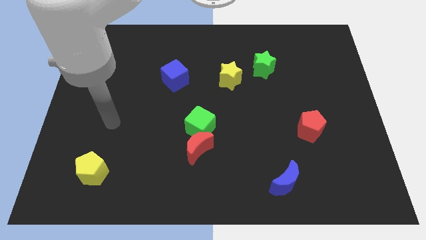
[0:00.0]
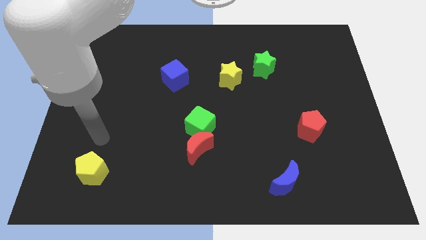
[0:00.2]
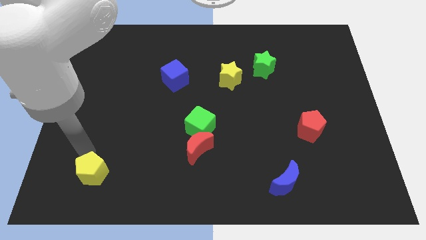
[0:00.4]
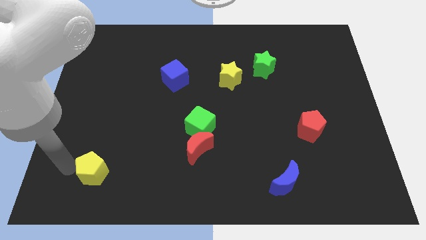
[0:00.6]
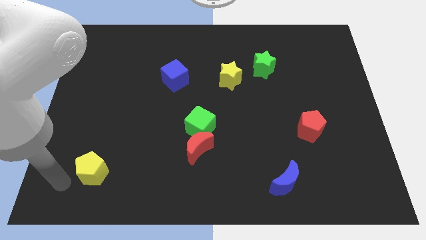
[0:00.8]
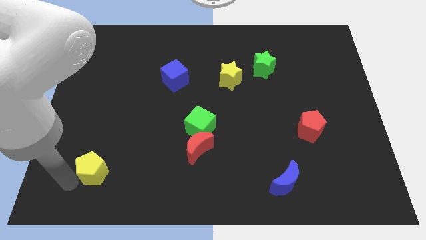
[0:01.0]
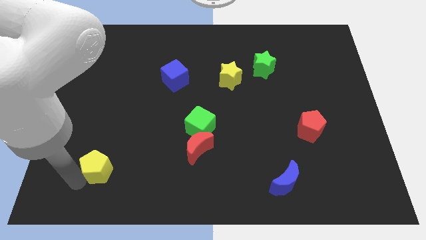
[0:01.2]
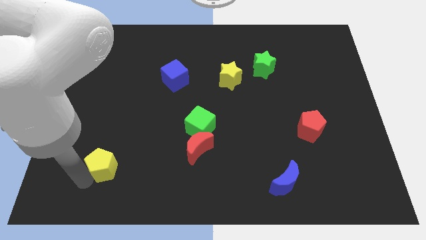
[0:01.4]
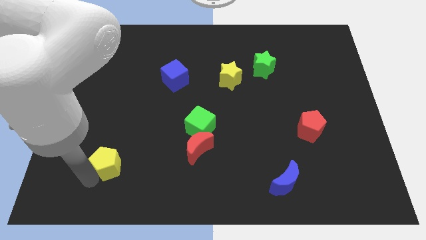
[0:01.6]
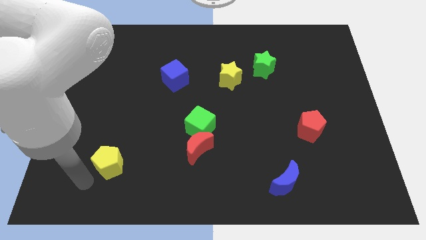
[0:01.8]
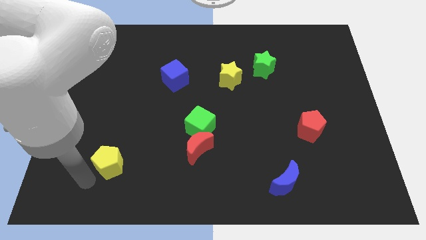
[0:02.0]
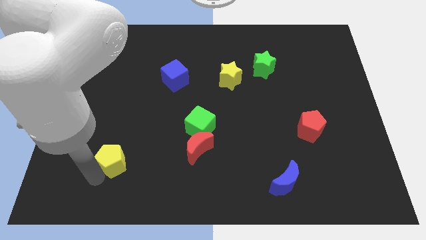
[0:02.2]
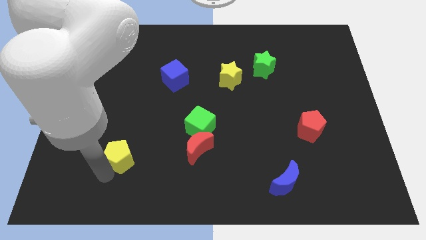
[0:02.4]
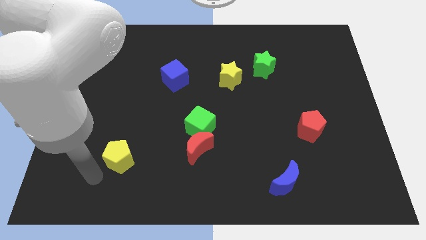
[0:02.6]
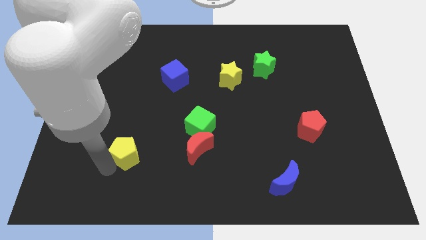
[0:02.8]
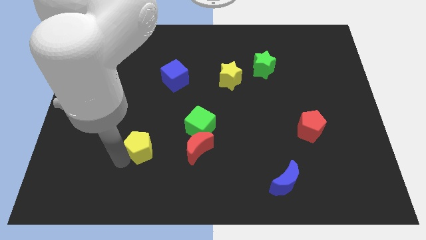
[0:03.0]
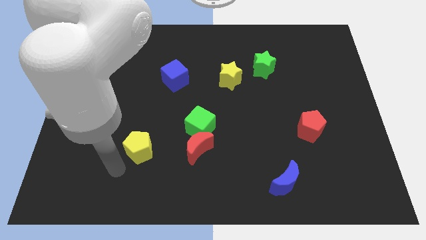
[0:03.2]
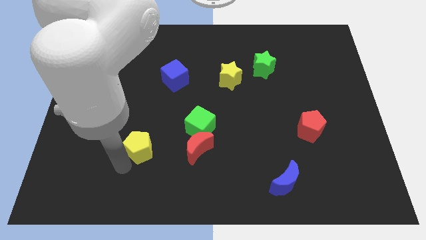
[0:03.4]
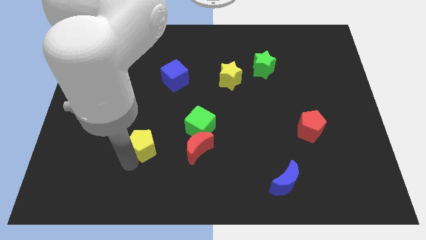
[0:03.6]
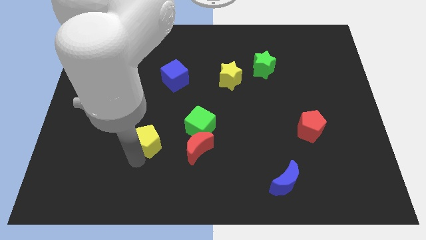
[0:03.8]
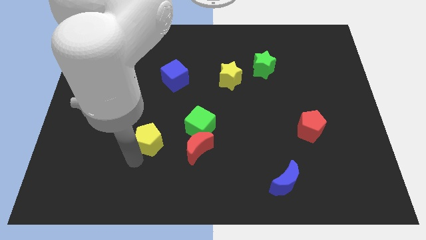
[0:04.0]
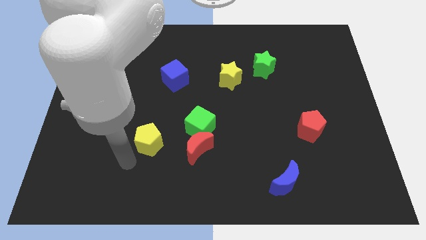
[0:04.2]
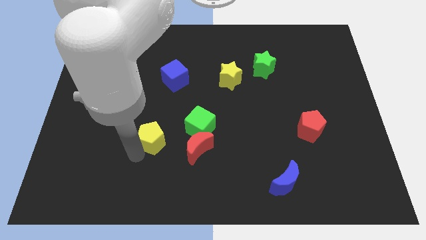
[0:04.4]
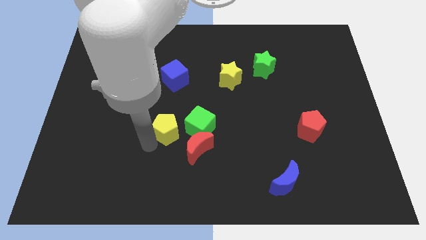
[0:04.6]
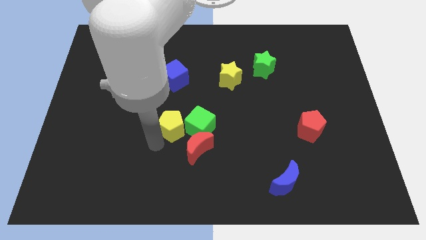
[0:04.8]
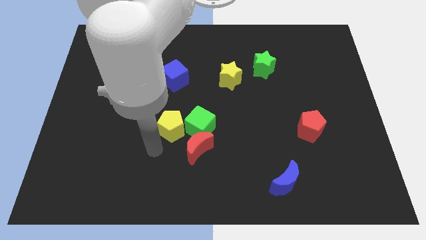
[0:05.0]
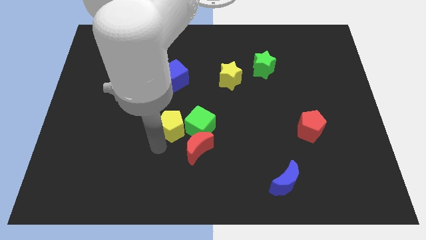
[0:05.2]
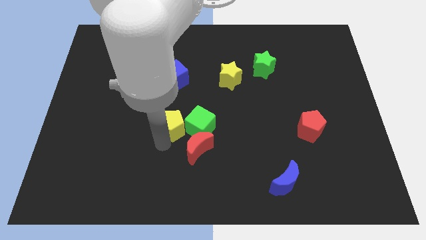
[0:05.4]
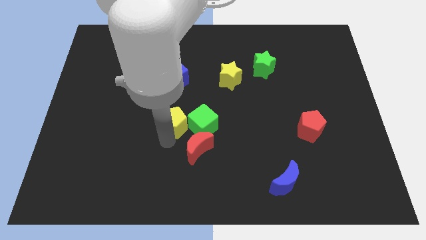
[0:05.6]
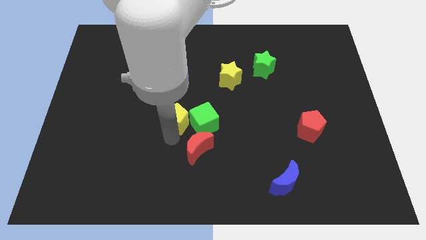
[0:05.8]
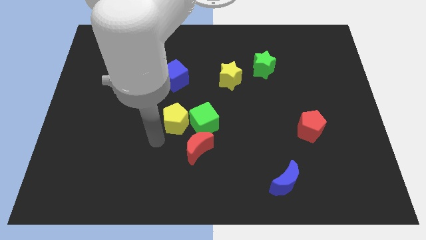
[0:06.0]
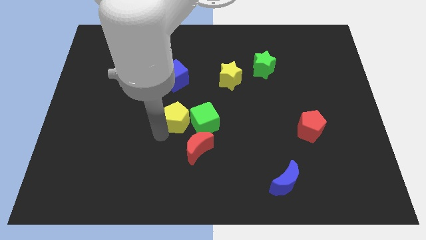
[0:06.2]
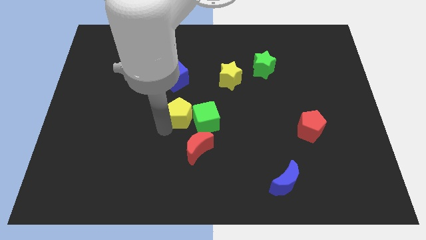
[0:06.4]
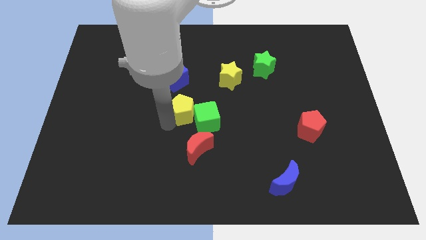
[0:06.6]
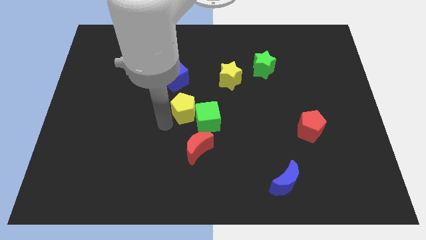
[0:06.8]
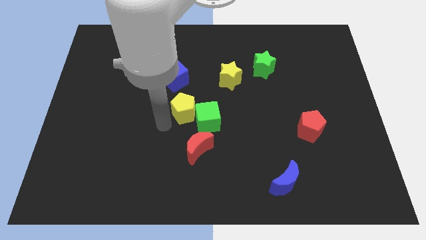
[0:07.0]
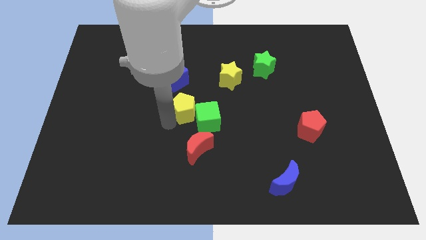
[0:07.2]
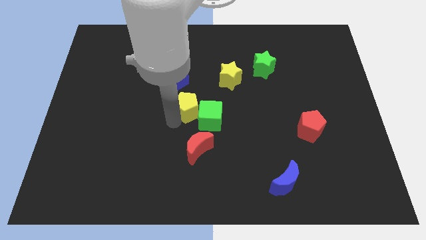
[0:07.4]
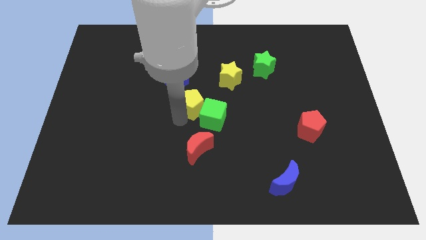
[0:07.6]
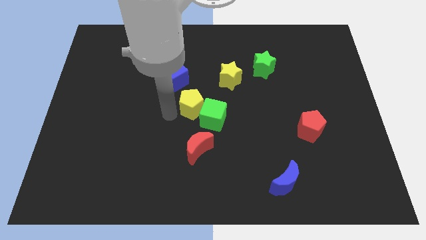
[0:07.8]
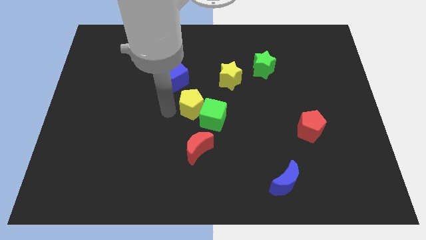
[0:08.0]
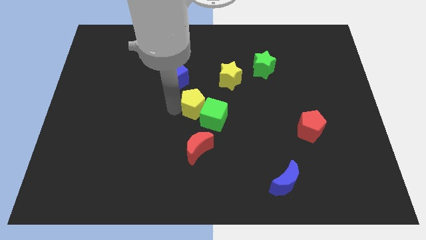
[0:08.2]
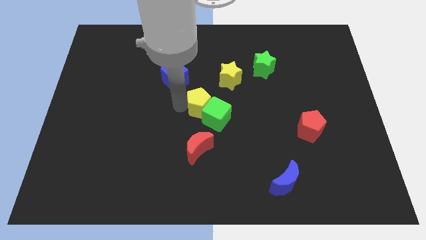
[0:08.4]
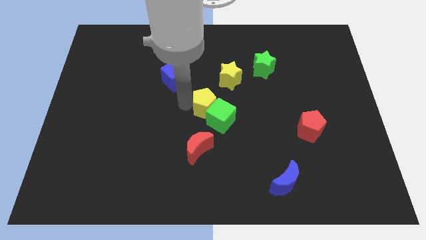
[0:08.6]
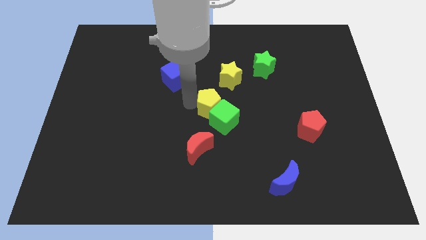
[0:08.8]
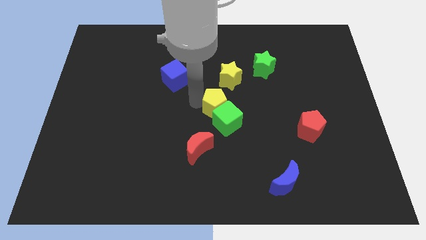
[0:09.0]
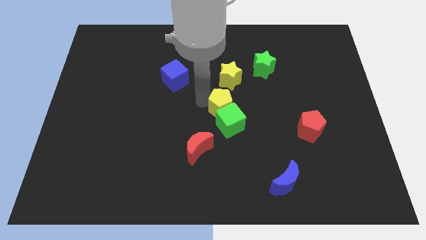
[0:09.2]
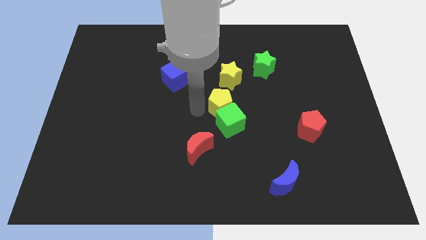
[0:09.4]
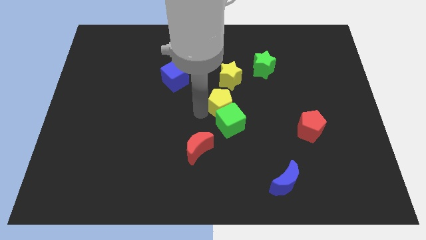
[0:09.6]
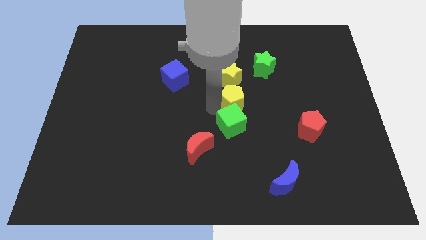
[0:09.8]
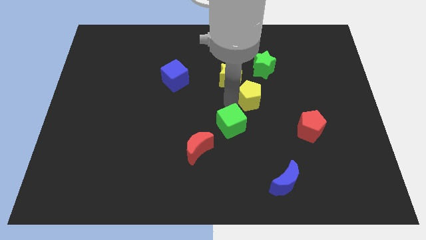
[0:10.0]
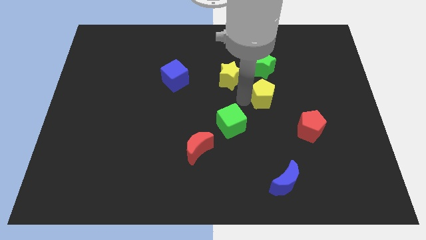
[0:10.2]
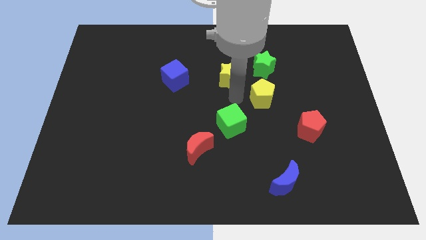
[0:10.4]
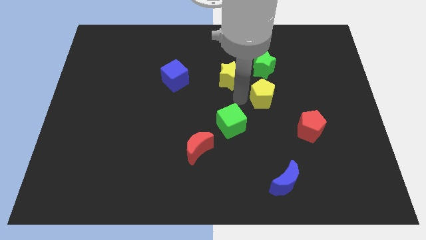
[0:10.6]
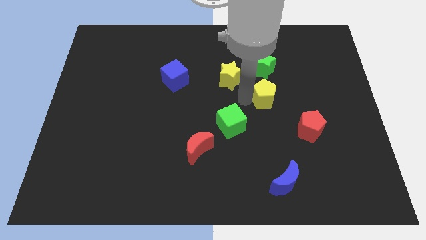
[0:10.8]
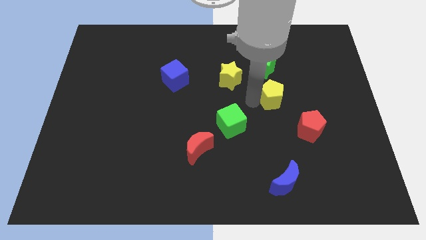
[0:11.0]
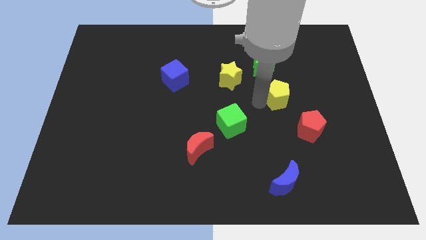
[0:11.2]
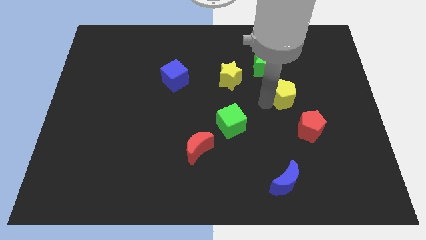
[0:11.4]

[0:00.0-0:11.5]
push the yellow pentagon to the top side of the red pentagon

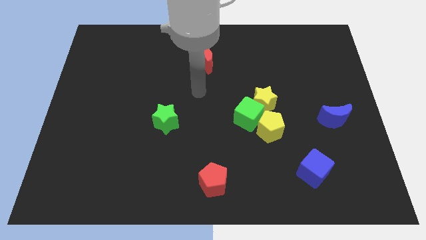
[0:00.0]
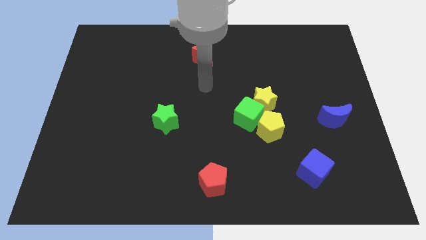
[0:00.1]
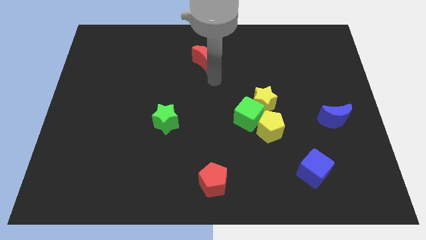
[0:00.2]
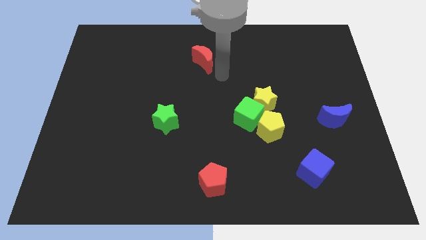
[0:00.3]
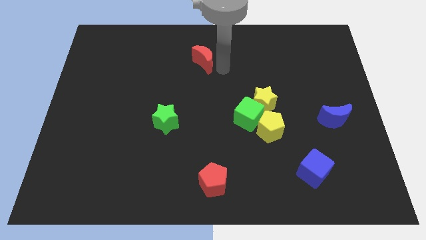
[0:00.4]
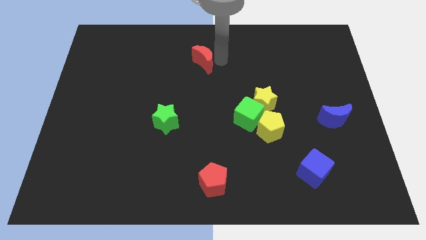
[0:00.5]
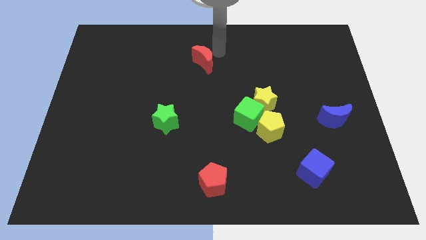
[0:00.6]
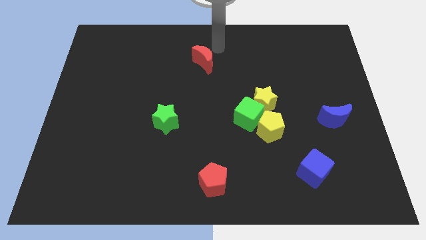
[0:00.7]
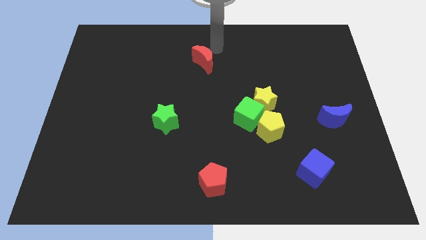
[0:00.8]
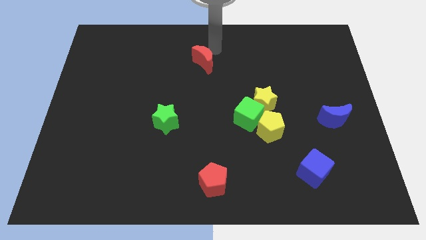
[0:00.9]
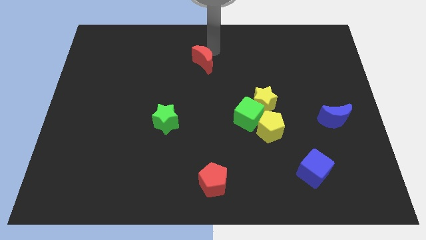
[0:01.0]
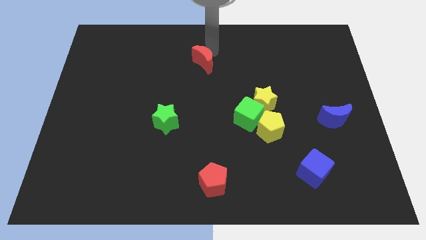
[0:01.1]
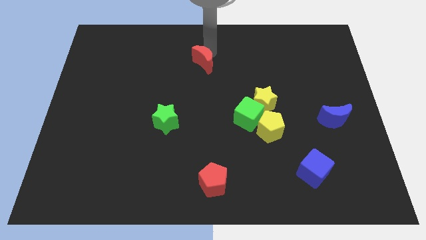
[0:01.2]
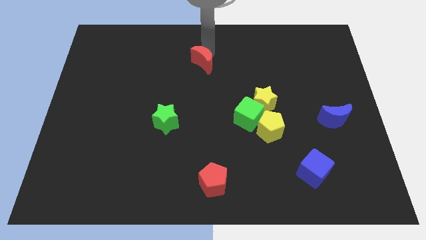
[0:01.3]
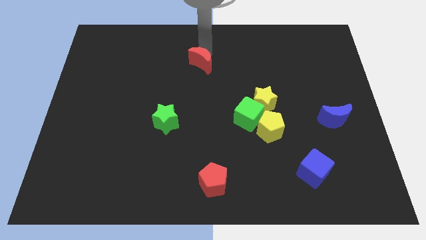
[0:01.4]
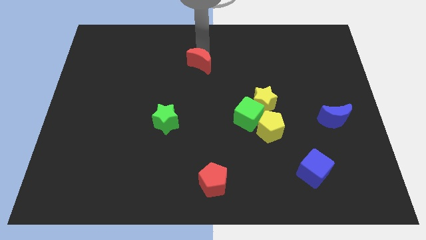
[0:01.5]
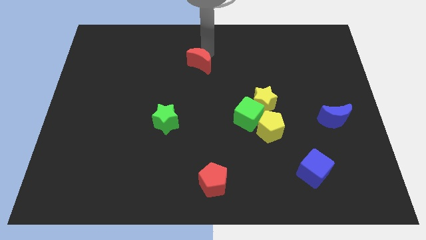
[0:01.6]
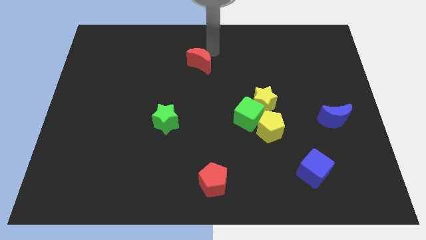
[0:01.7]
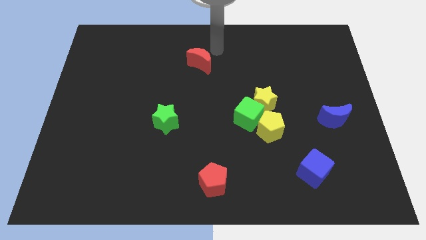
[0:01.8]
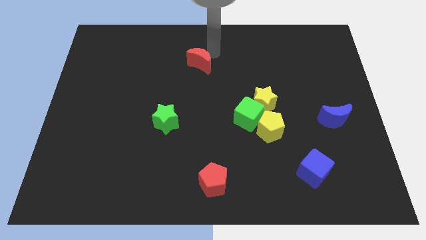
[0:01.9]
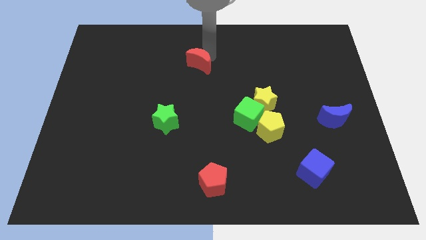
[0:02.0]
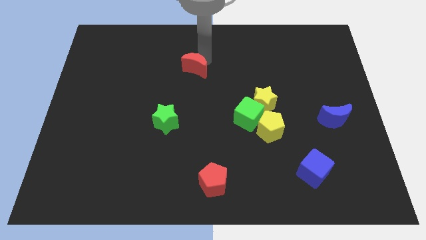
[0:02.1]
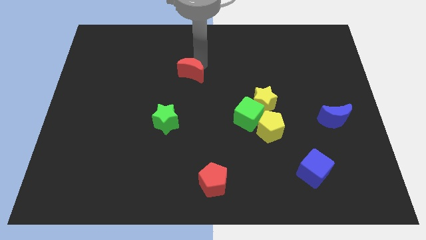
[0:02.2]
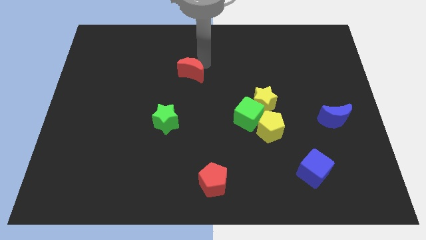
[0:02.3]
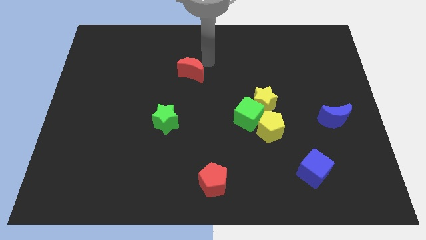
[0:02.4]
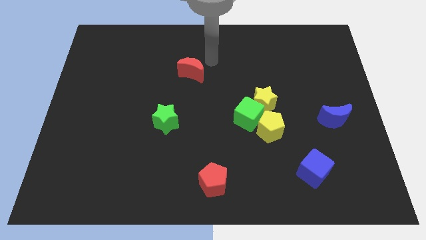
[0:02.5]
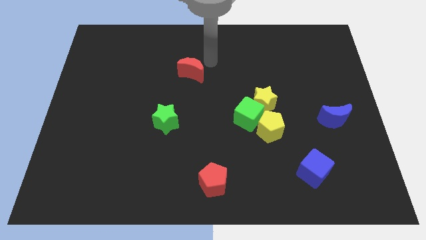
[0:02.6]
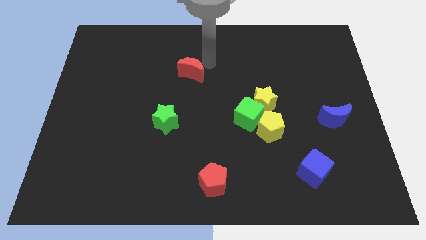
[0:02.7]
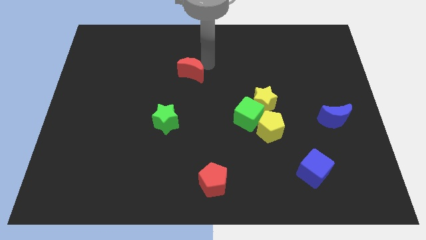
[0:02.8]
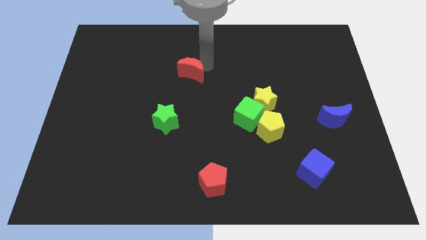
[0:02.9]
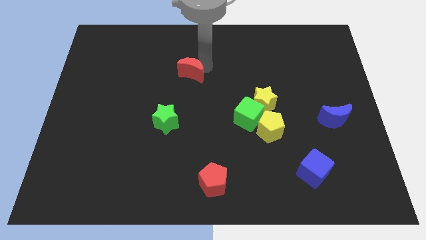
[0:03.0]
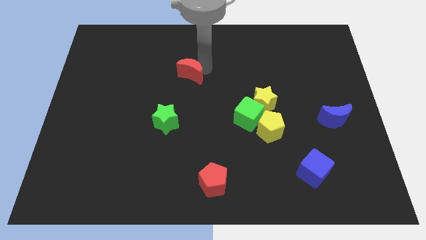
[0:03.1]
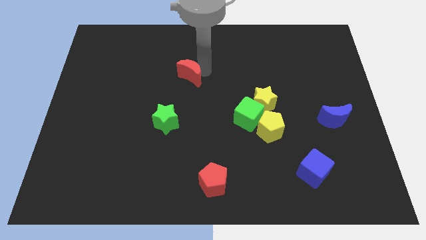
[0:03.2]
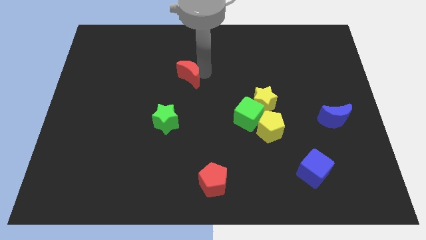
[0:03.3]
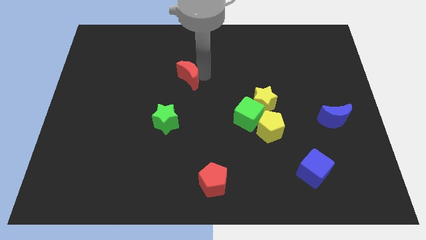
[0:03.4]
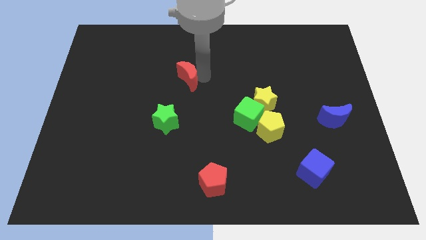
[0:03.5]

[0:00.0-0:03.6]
move the red moon above the green star
